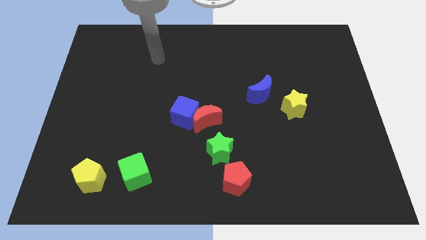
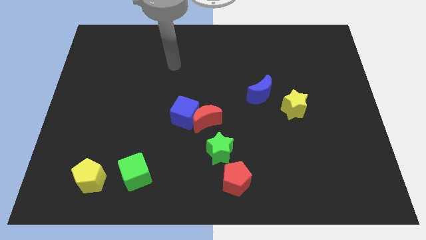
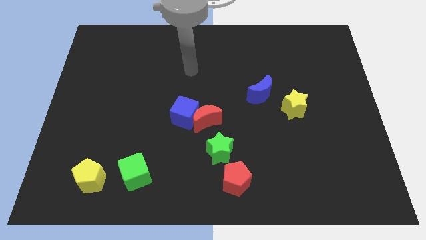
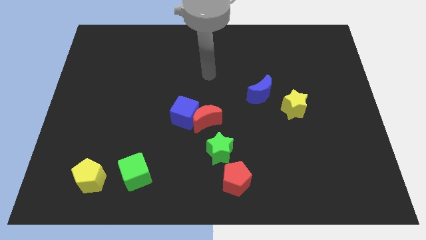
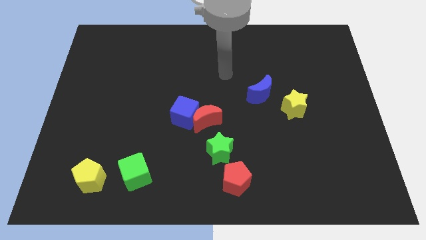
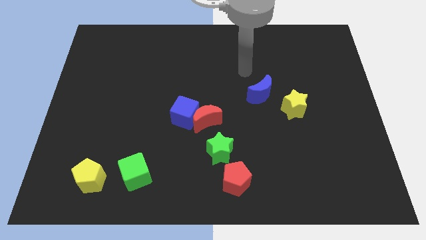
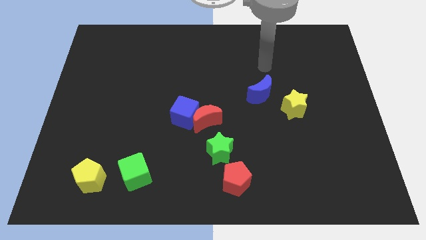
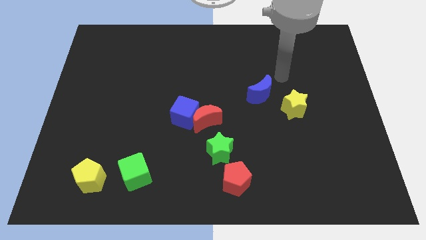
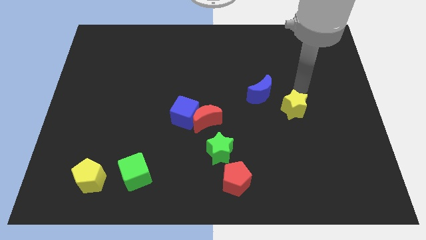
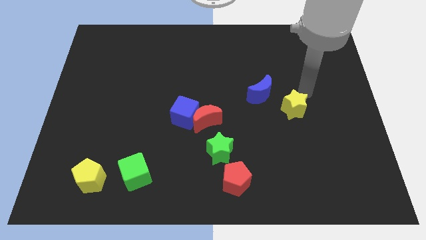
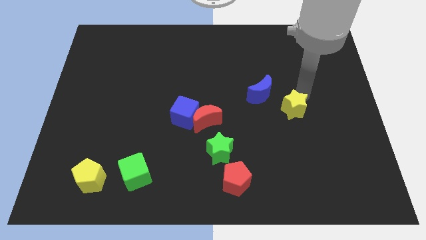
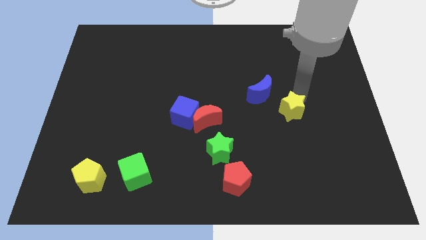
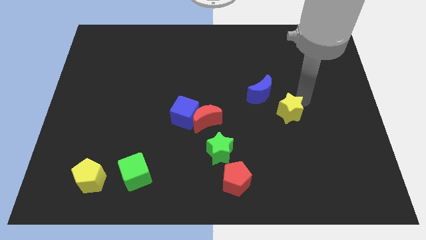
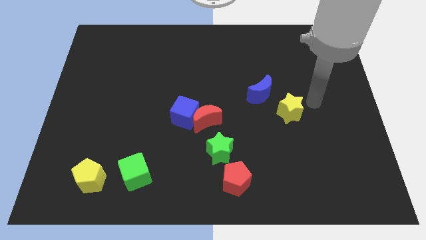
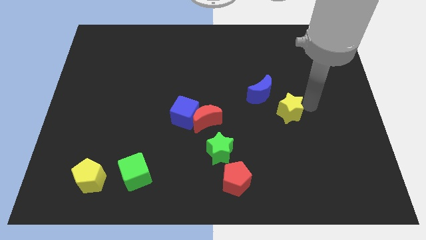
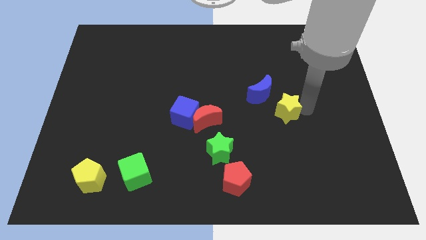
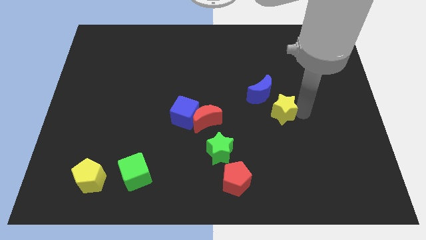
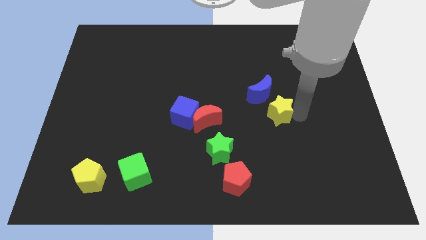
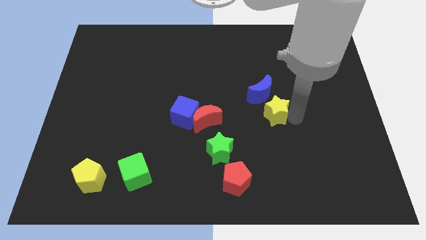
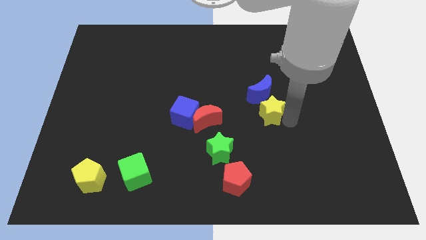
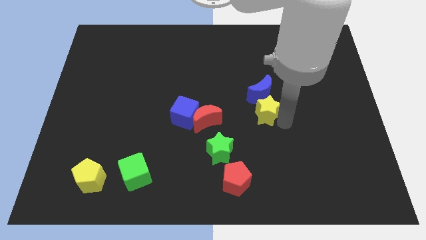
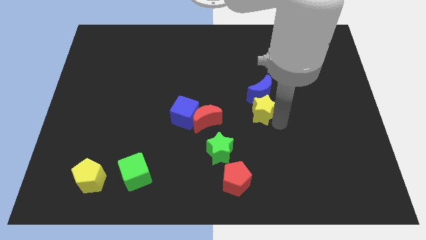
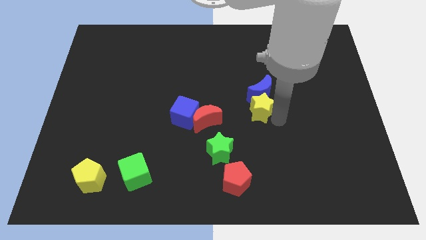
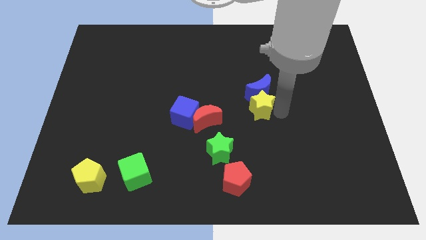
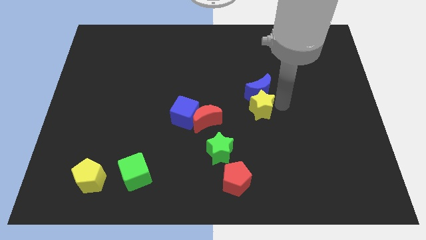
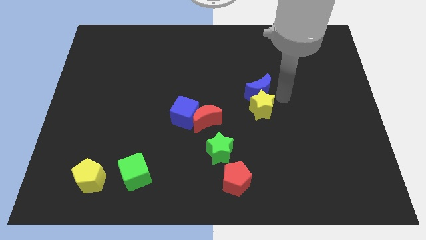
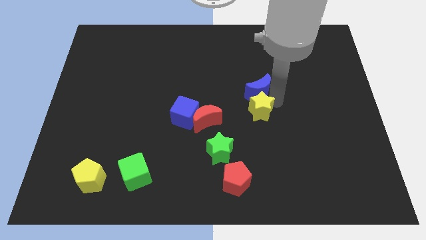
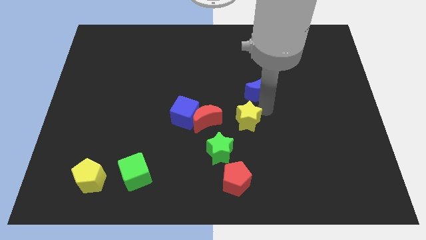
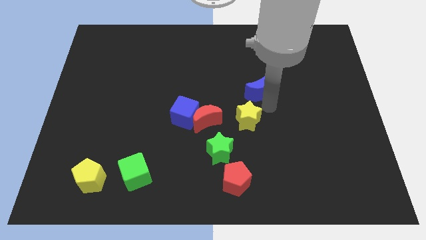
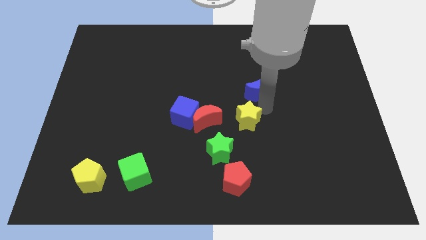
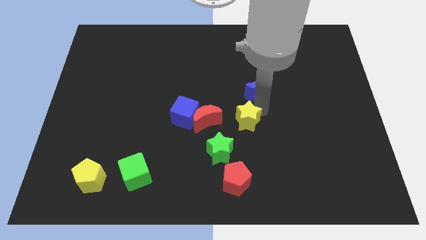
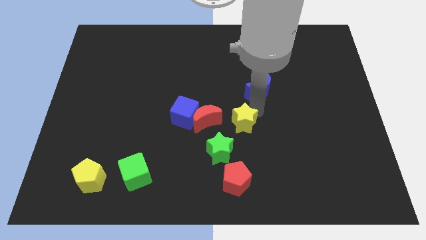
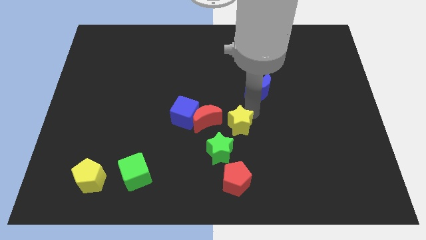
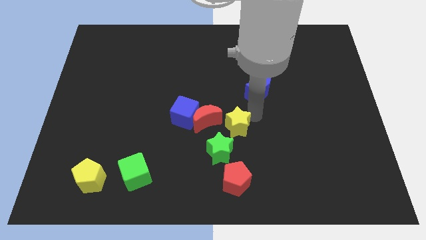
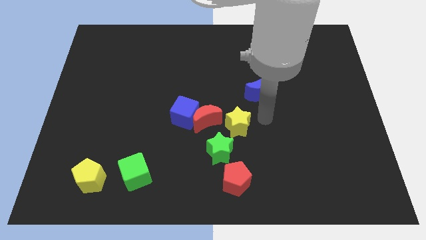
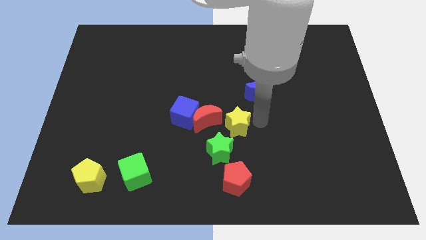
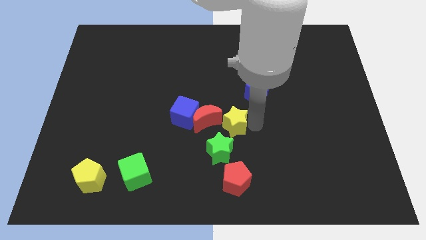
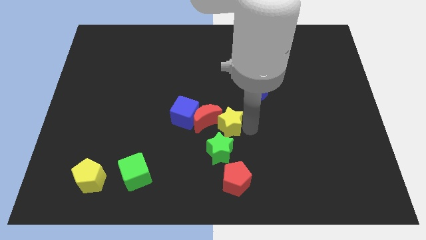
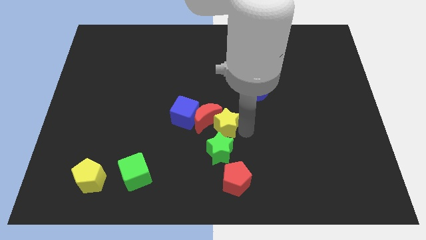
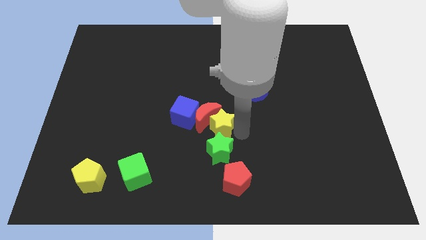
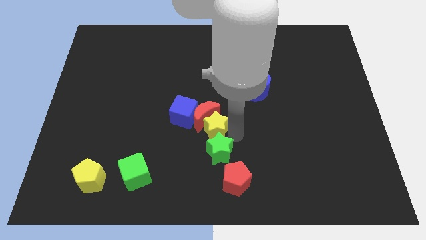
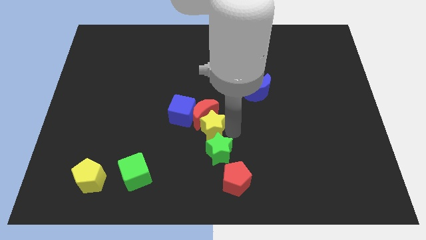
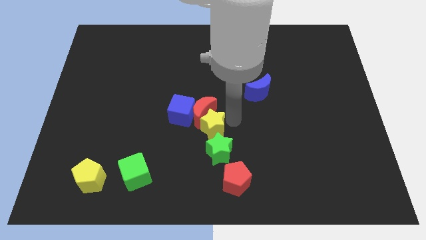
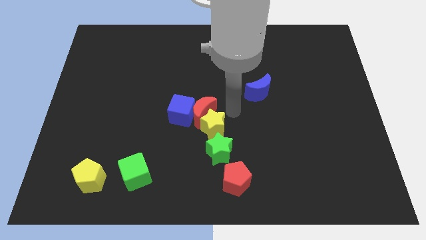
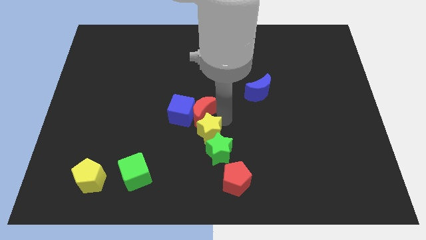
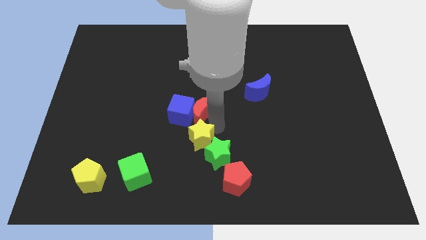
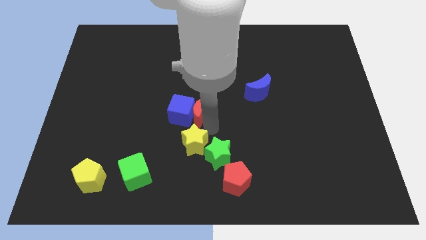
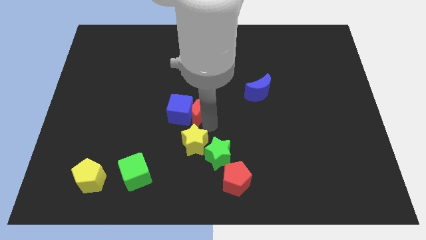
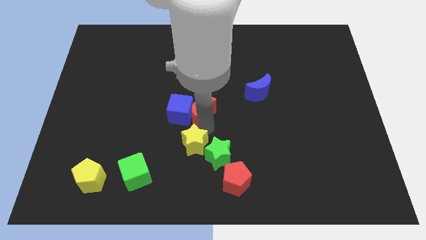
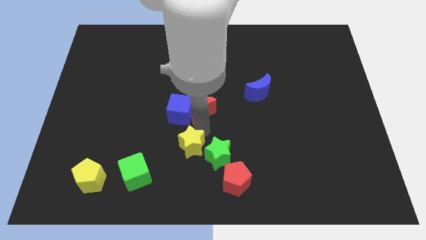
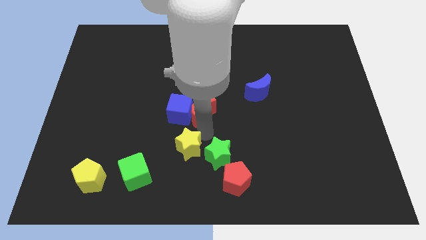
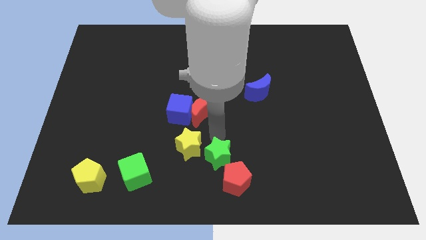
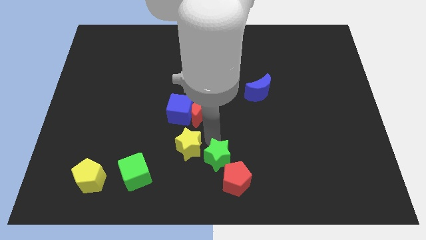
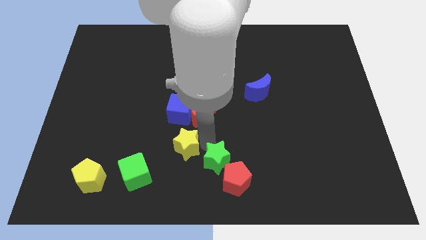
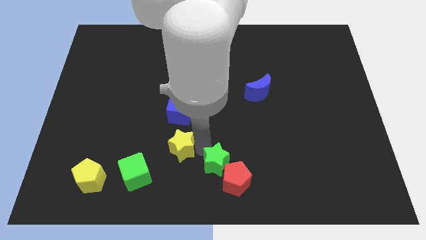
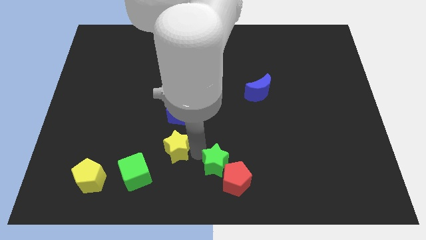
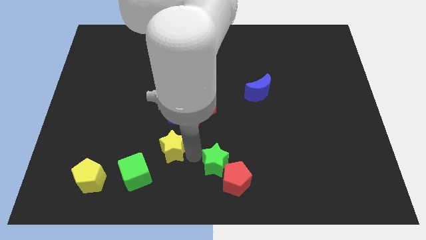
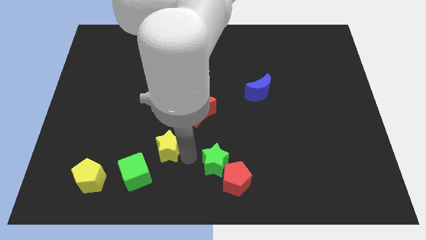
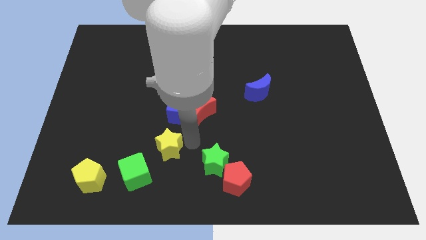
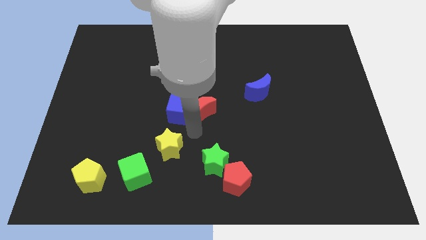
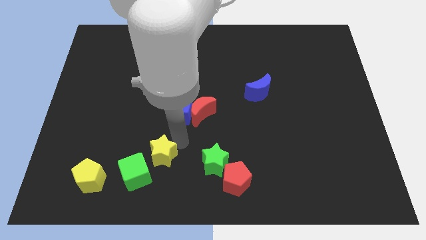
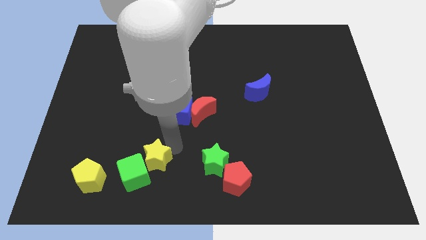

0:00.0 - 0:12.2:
move the yellow star towards the green cube

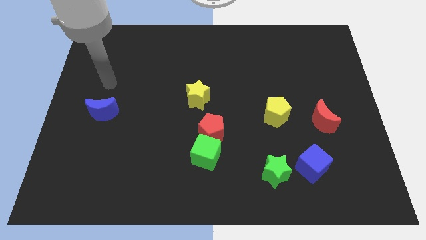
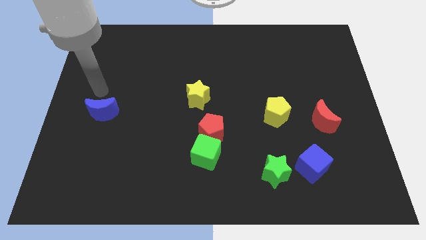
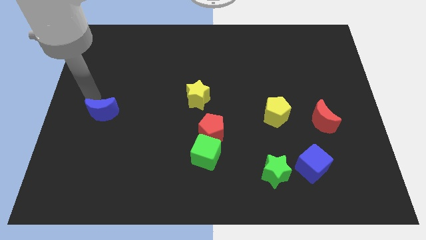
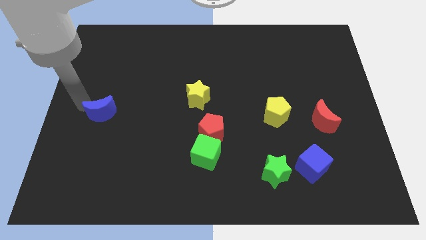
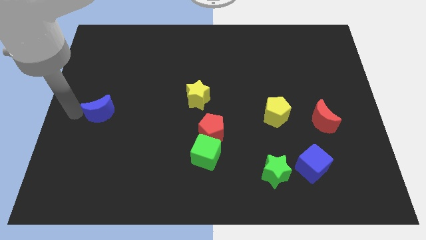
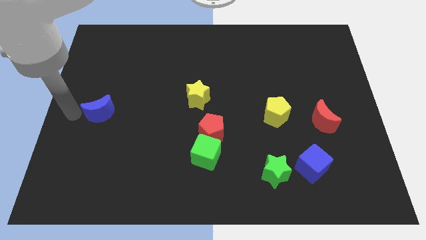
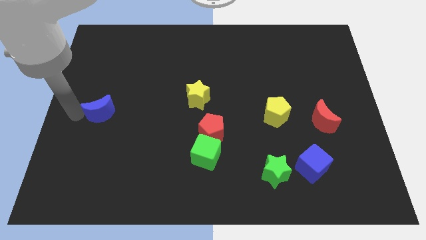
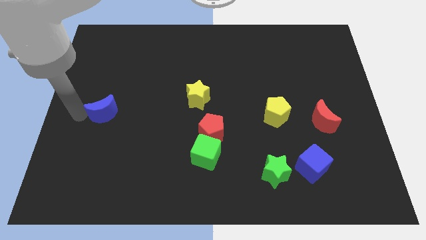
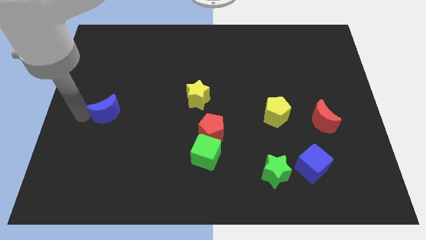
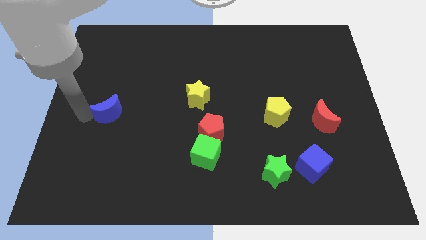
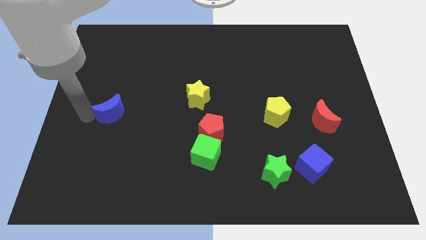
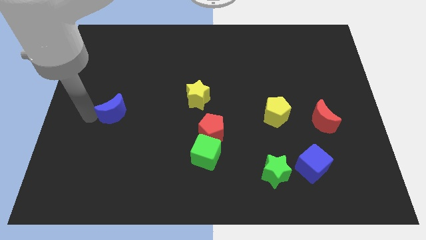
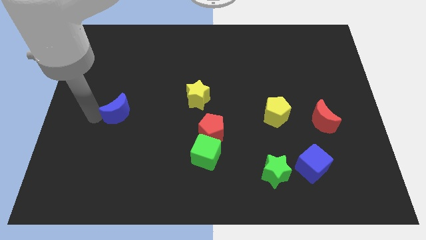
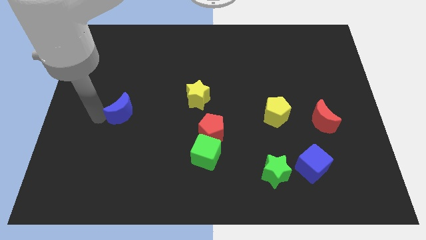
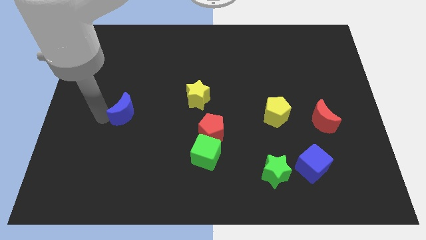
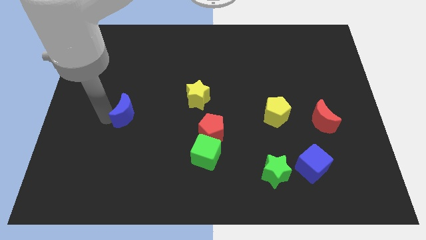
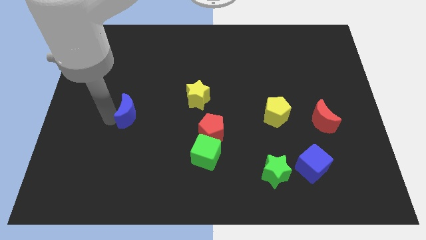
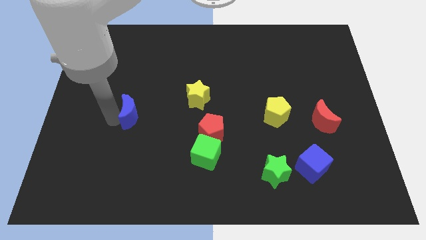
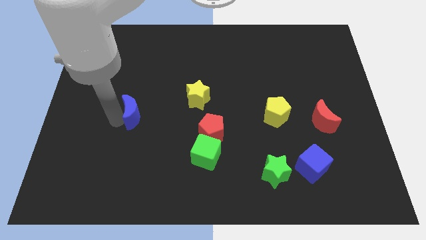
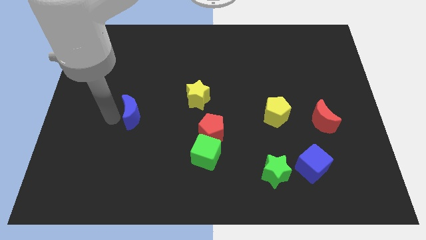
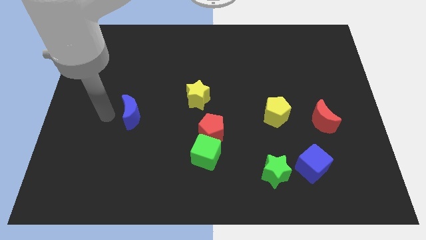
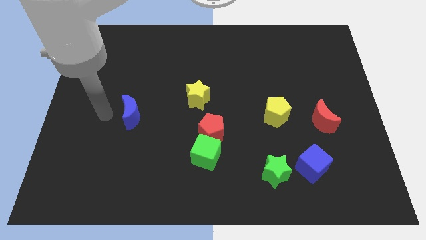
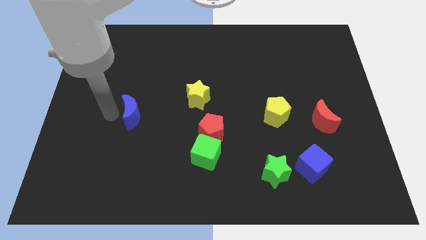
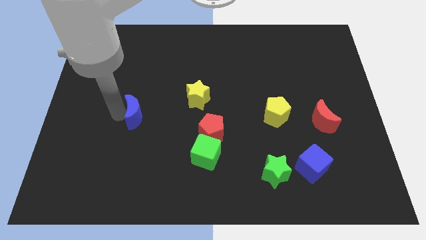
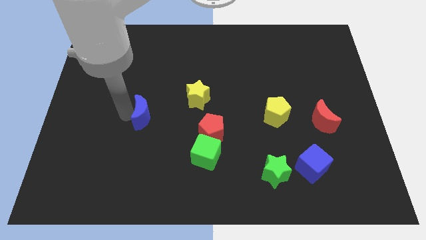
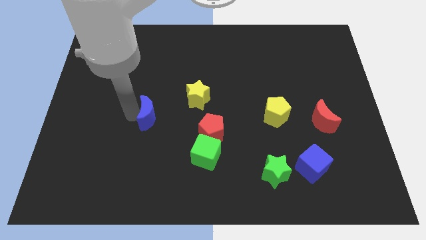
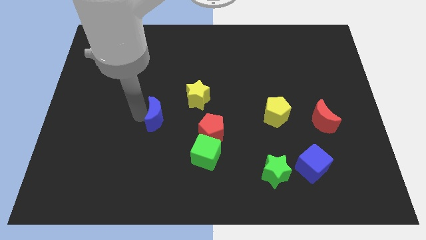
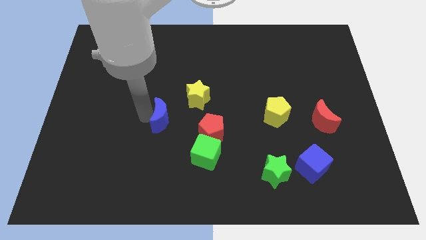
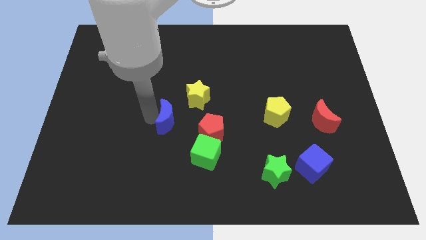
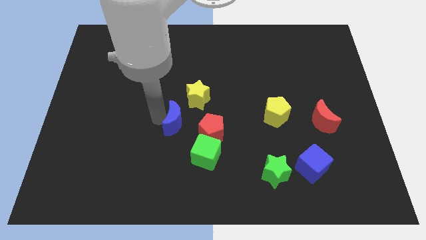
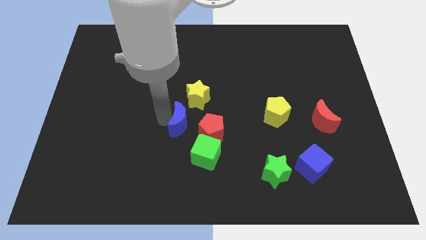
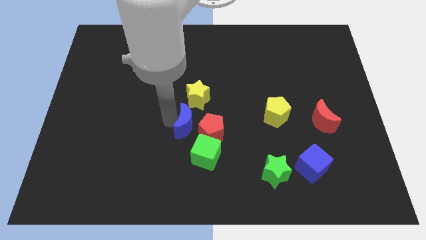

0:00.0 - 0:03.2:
push the blue moon towards the red pentagon
